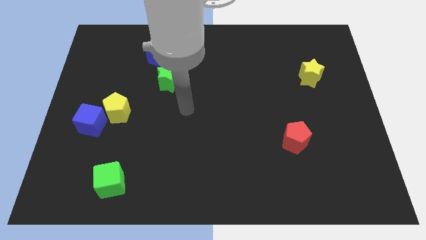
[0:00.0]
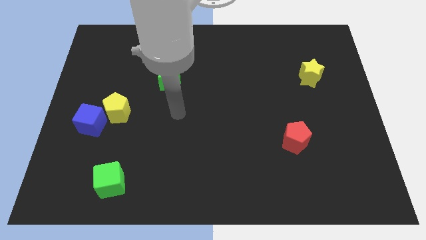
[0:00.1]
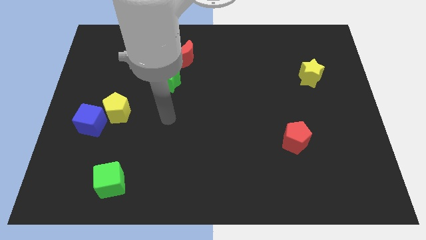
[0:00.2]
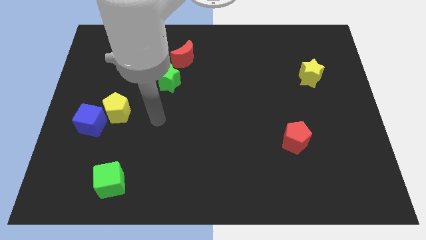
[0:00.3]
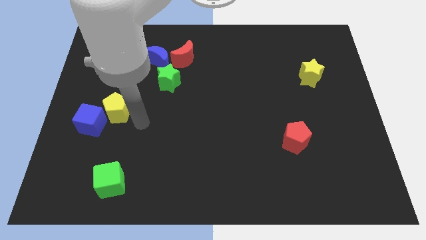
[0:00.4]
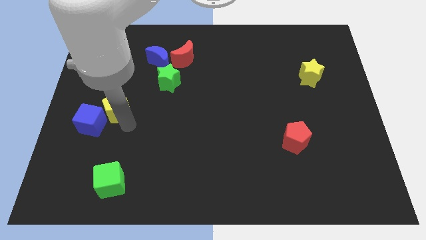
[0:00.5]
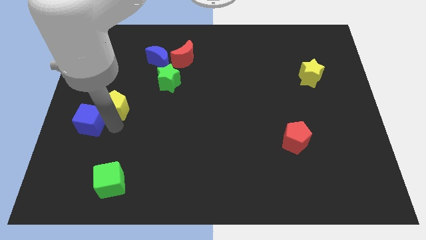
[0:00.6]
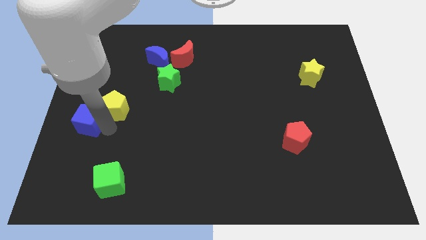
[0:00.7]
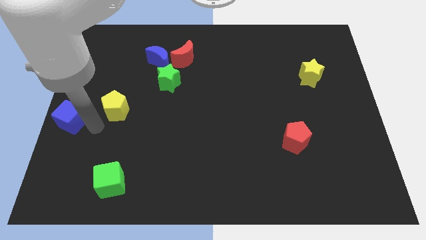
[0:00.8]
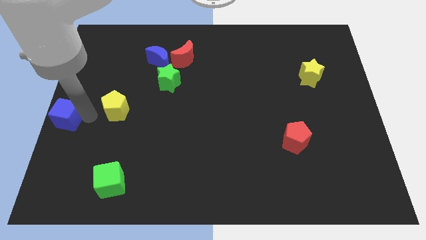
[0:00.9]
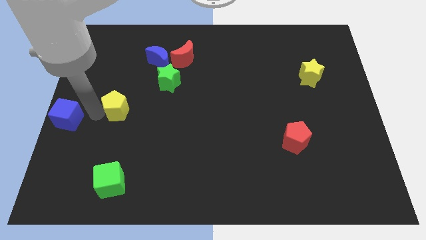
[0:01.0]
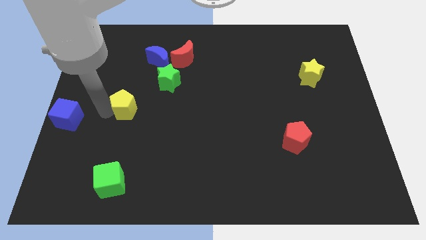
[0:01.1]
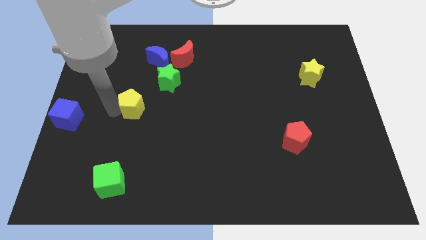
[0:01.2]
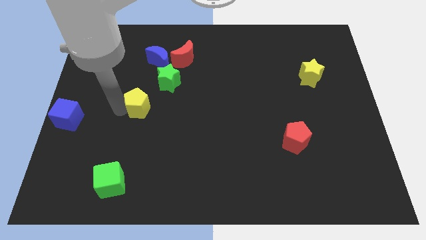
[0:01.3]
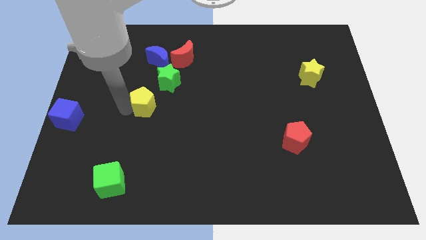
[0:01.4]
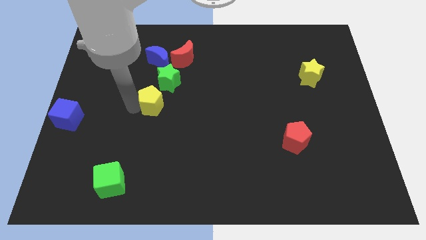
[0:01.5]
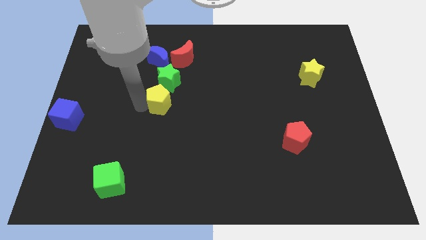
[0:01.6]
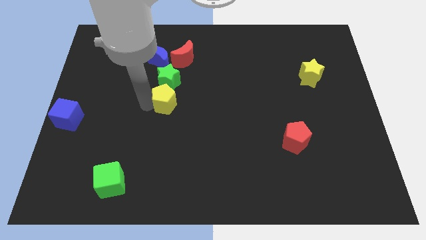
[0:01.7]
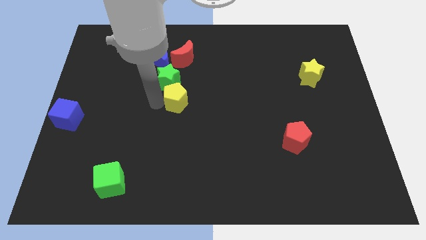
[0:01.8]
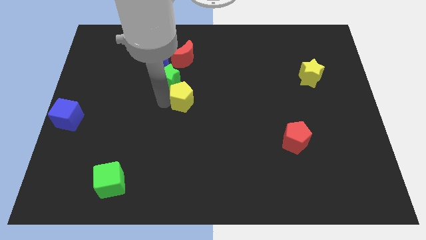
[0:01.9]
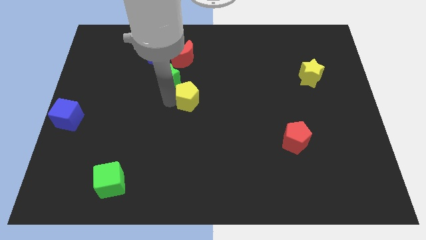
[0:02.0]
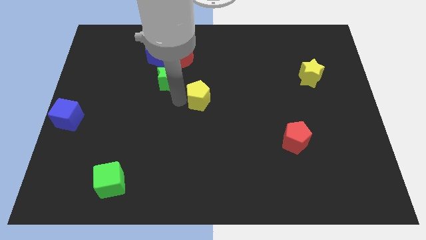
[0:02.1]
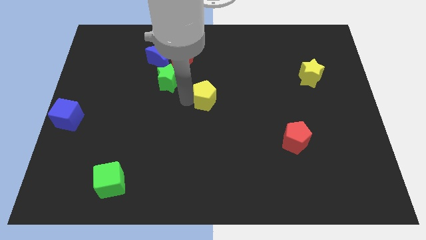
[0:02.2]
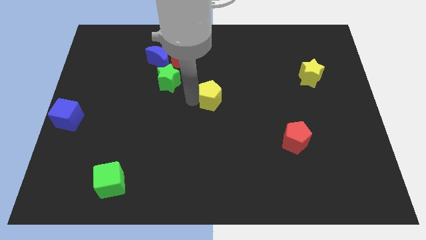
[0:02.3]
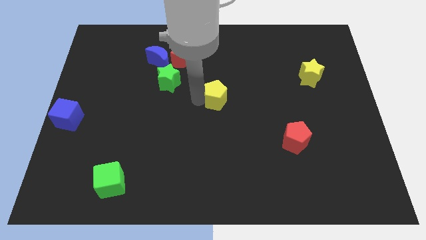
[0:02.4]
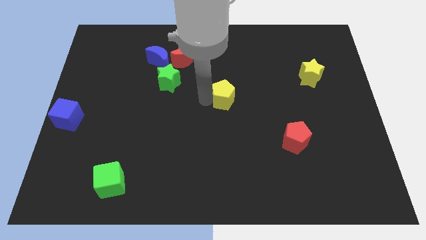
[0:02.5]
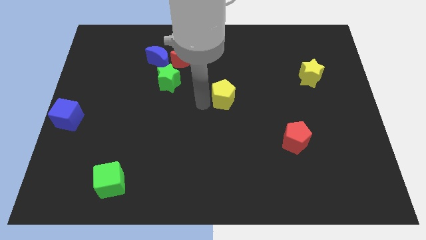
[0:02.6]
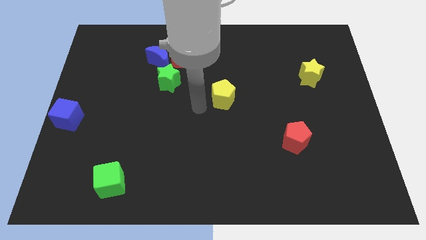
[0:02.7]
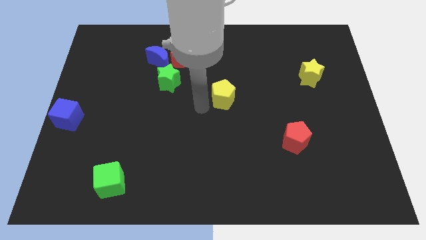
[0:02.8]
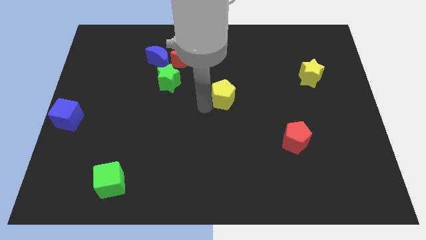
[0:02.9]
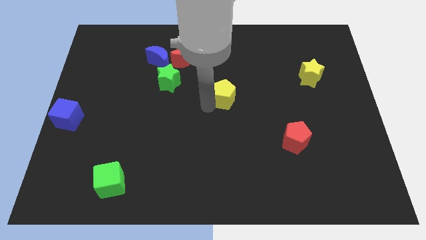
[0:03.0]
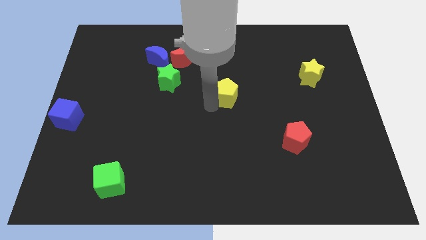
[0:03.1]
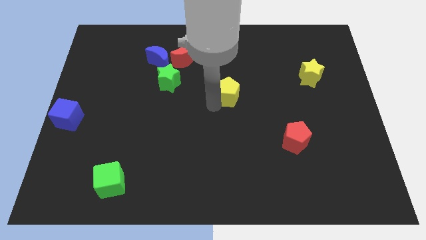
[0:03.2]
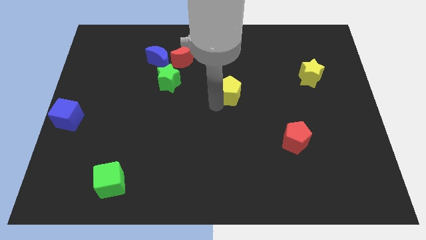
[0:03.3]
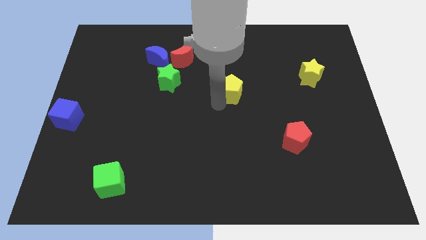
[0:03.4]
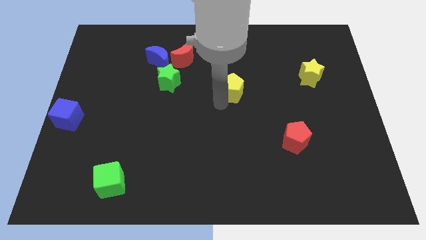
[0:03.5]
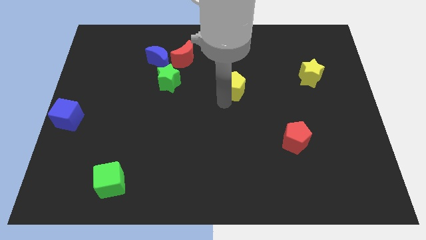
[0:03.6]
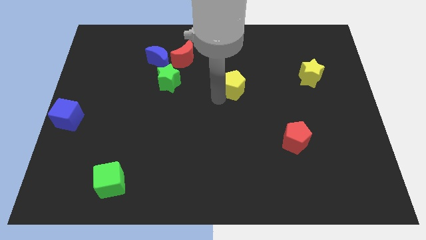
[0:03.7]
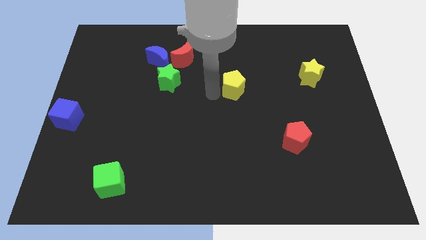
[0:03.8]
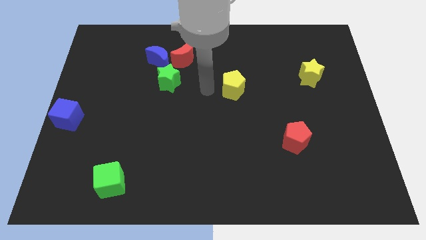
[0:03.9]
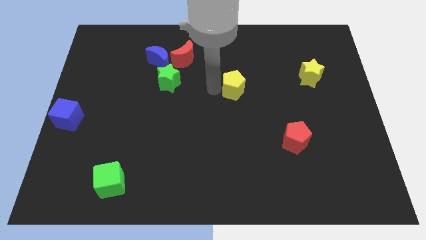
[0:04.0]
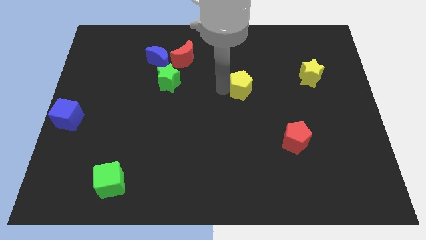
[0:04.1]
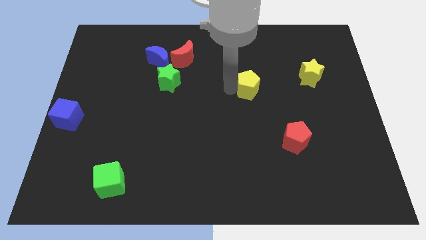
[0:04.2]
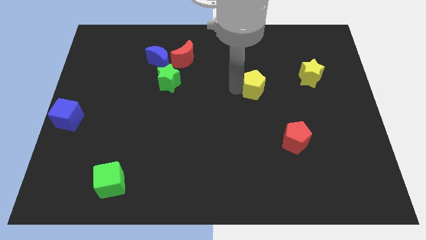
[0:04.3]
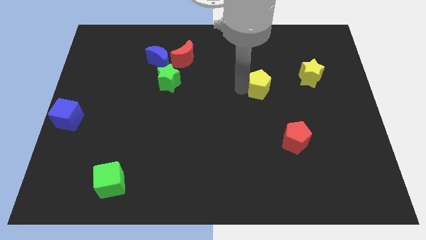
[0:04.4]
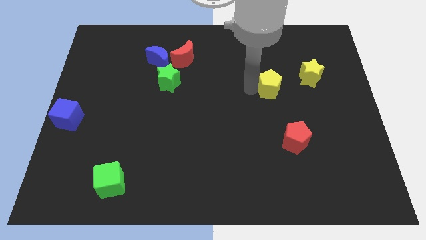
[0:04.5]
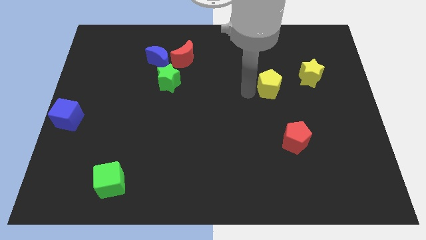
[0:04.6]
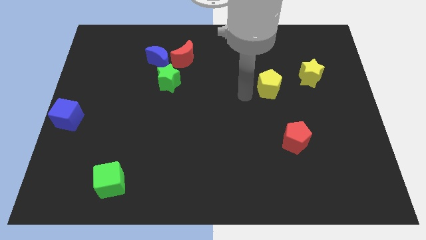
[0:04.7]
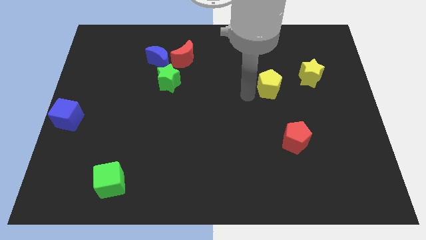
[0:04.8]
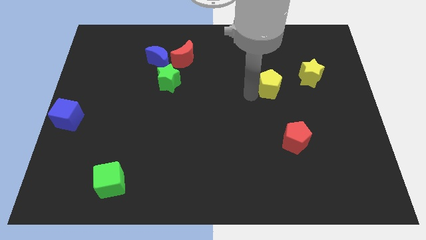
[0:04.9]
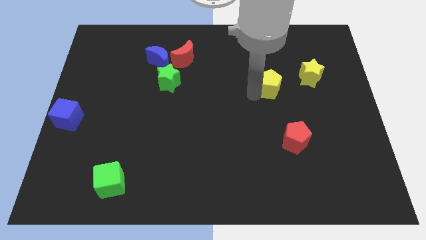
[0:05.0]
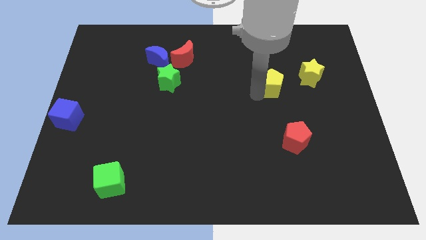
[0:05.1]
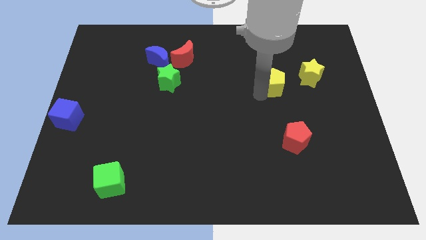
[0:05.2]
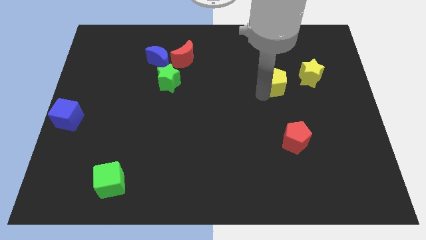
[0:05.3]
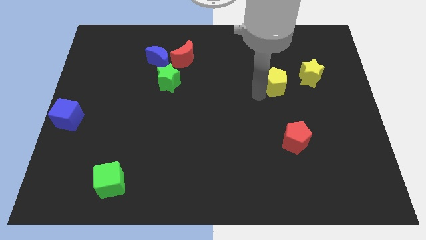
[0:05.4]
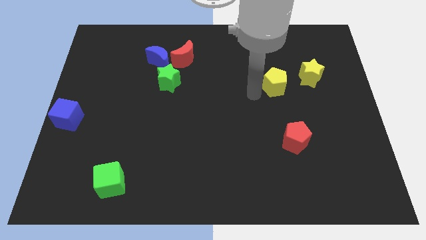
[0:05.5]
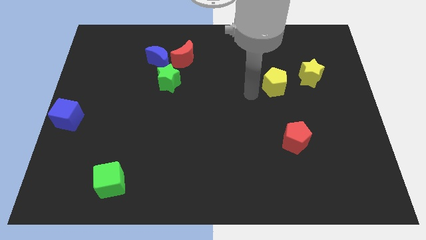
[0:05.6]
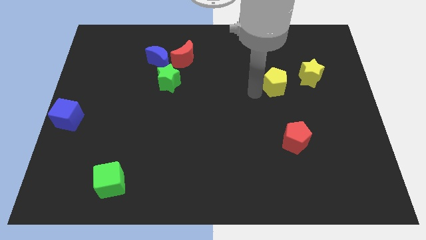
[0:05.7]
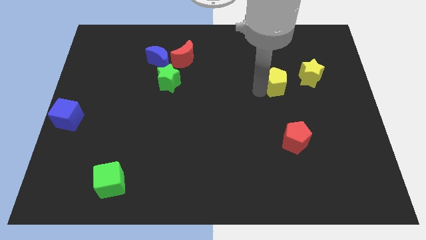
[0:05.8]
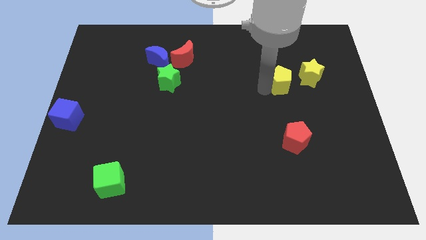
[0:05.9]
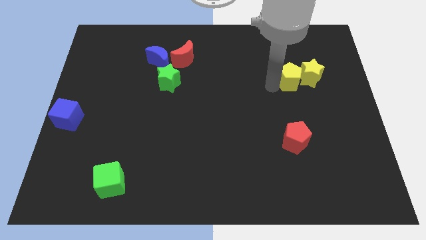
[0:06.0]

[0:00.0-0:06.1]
slide the yellow pentagon next to the yellow star

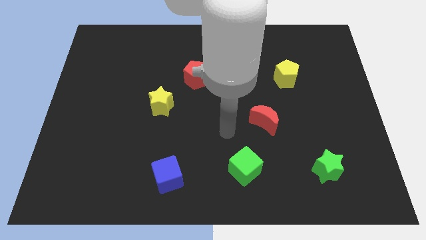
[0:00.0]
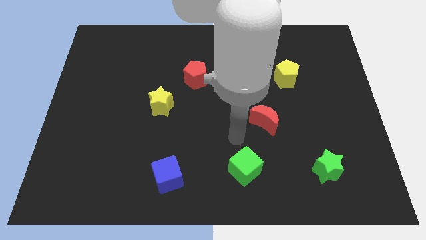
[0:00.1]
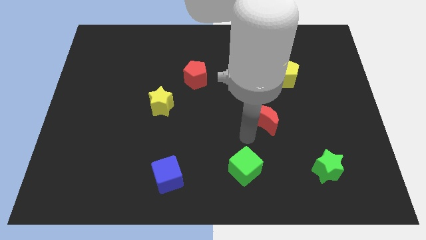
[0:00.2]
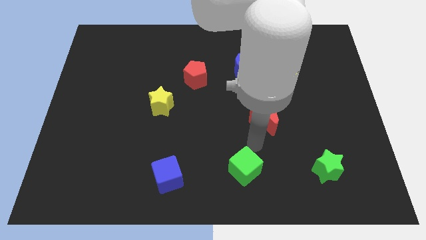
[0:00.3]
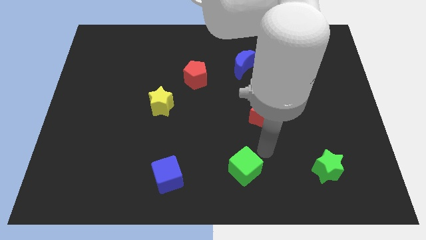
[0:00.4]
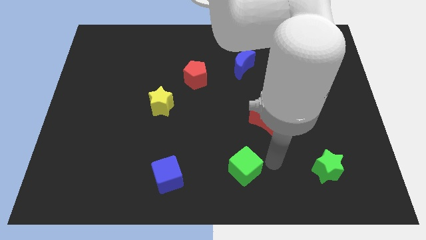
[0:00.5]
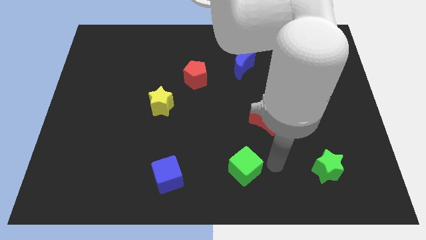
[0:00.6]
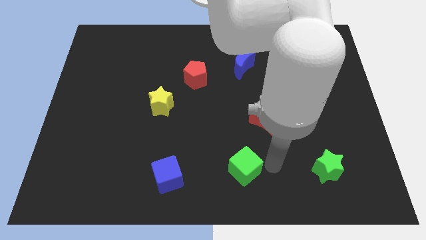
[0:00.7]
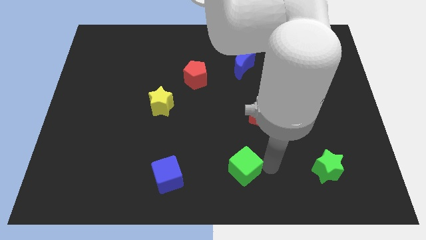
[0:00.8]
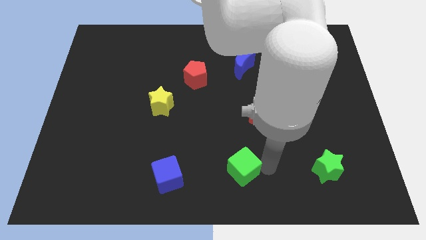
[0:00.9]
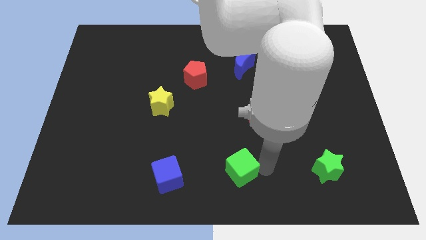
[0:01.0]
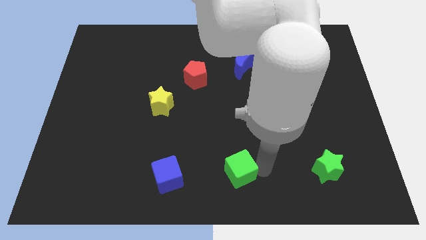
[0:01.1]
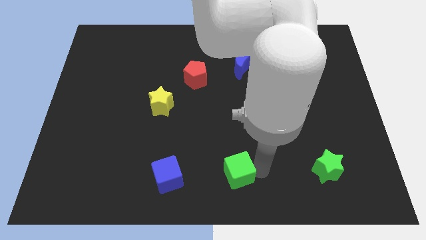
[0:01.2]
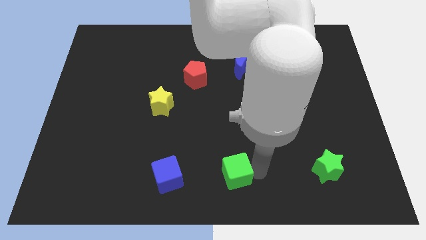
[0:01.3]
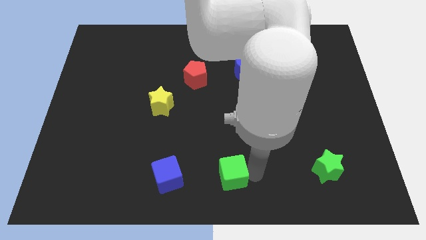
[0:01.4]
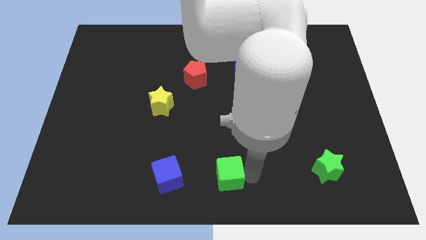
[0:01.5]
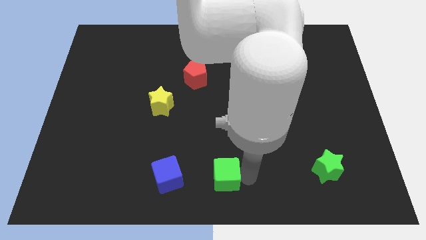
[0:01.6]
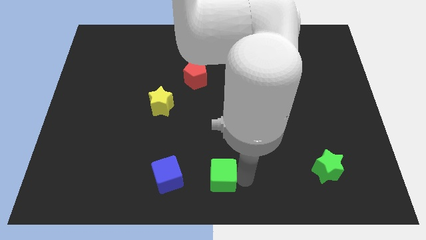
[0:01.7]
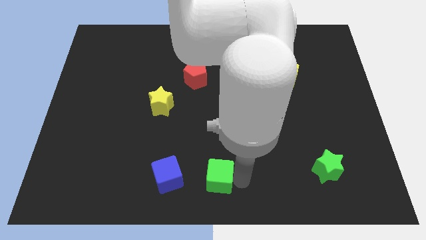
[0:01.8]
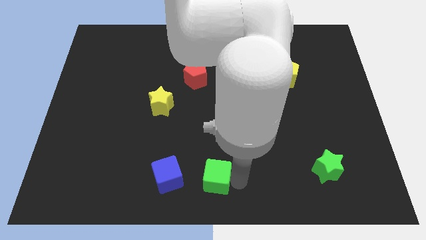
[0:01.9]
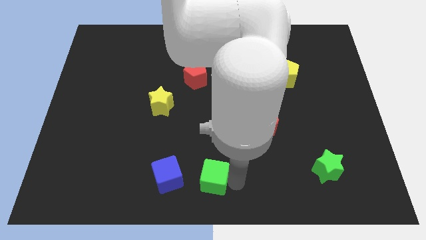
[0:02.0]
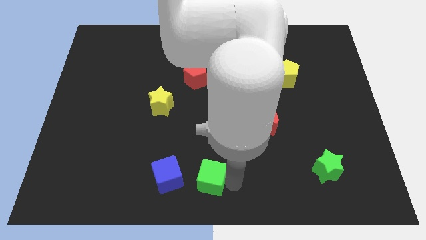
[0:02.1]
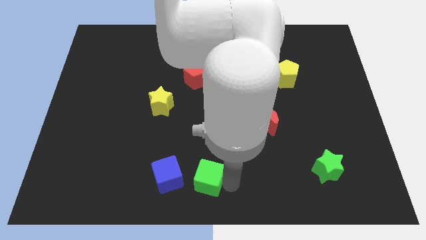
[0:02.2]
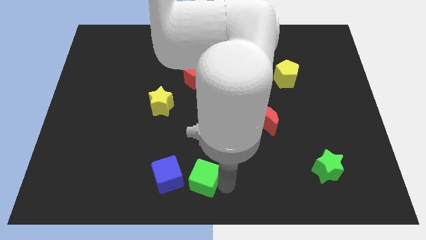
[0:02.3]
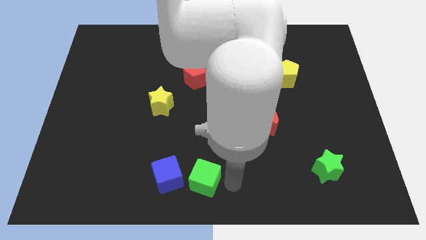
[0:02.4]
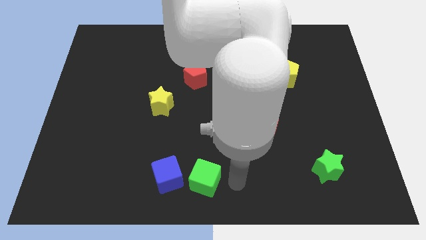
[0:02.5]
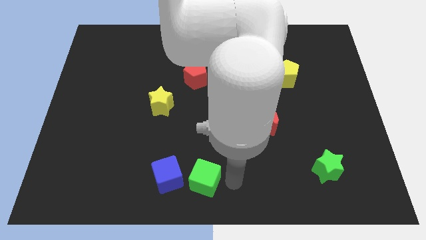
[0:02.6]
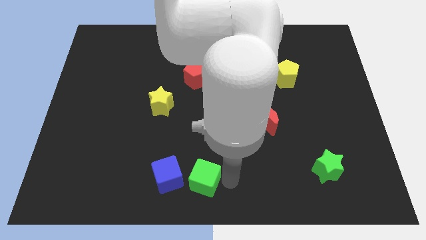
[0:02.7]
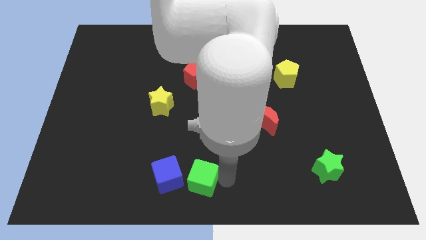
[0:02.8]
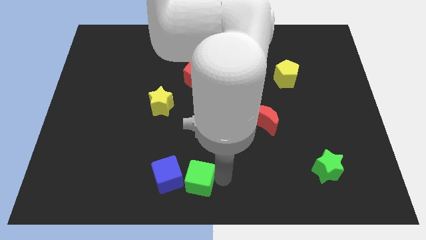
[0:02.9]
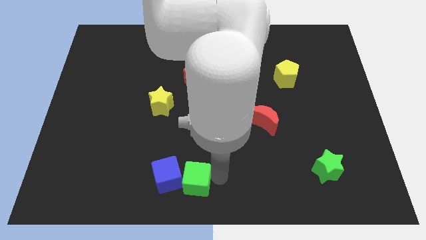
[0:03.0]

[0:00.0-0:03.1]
slide the green cube to the blue cube
